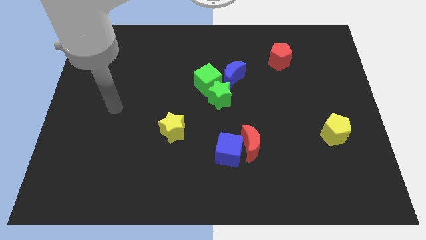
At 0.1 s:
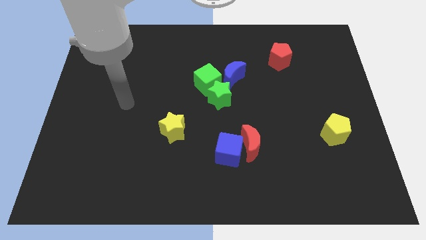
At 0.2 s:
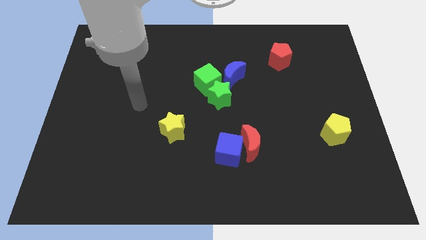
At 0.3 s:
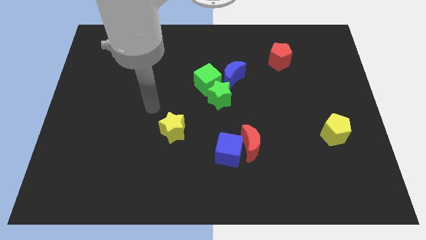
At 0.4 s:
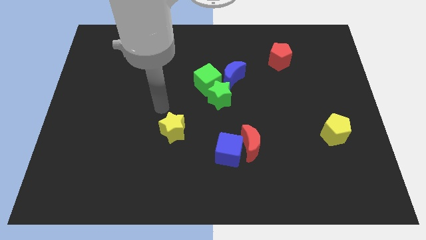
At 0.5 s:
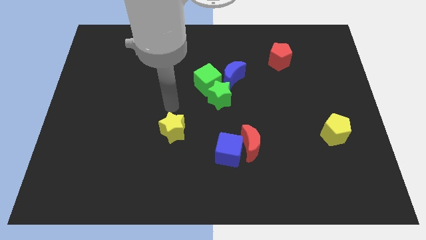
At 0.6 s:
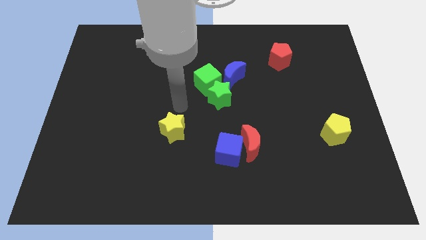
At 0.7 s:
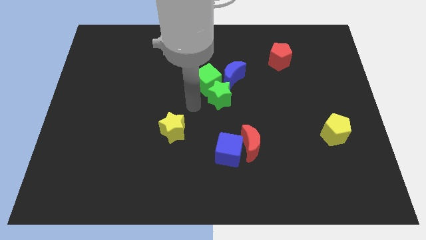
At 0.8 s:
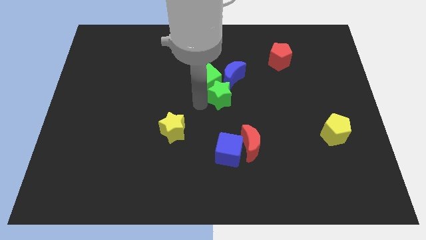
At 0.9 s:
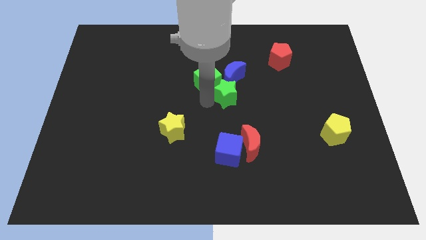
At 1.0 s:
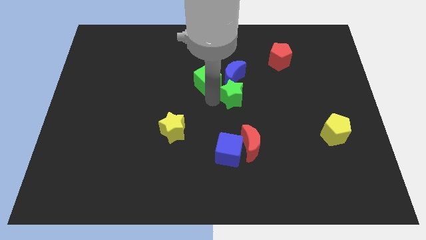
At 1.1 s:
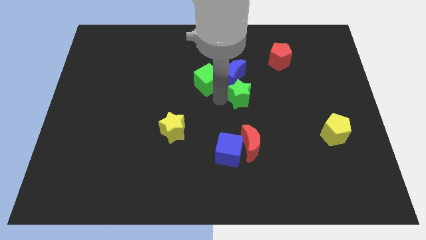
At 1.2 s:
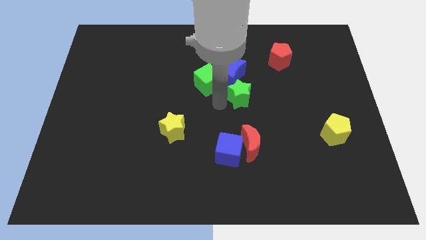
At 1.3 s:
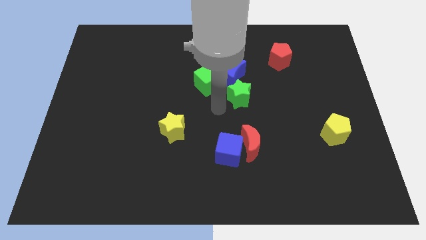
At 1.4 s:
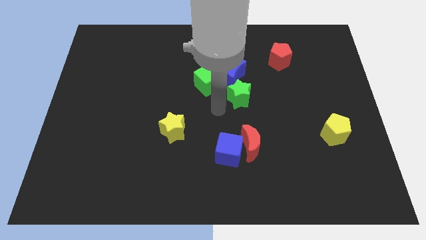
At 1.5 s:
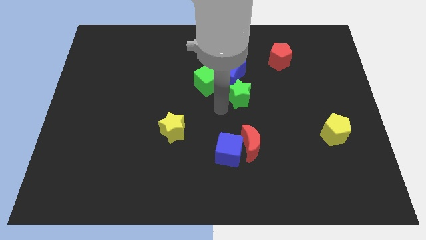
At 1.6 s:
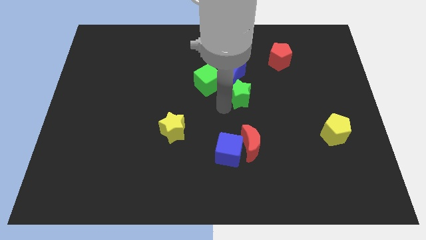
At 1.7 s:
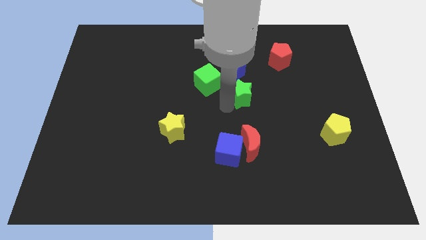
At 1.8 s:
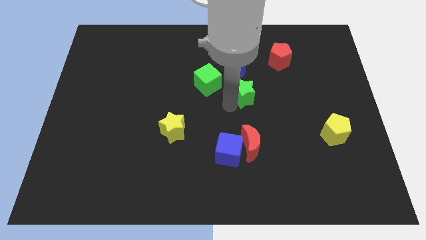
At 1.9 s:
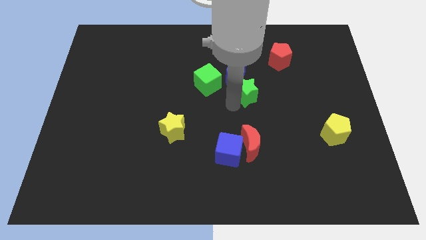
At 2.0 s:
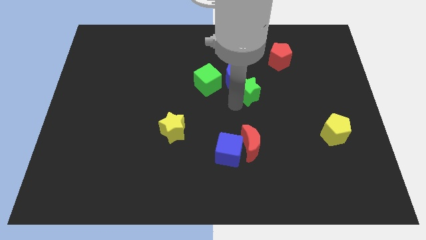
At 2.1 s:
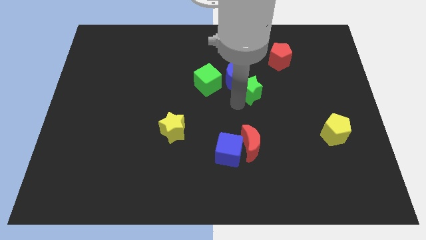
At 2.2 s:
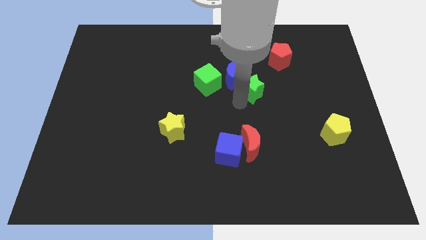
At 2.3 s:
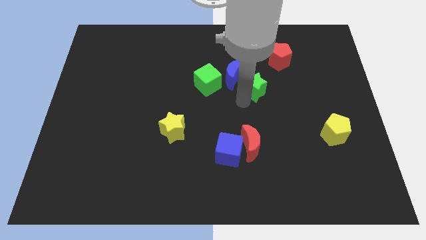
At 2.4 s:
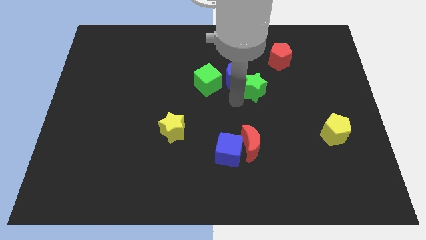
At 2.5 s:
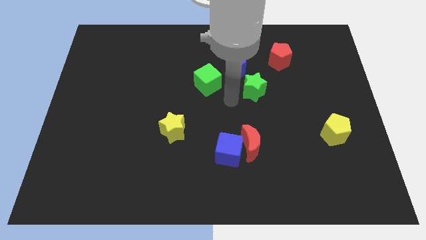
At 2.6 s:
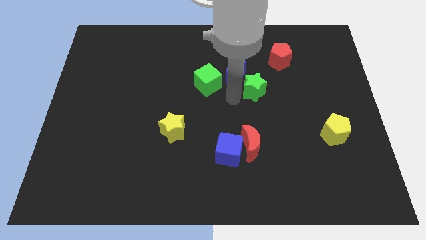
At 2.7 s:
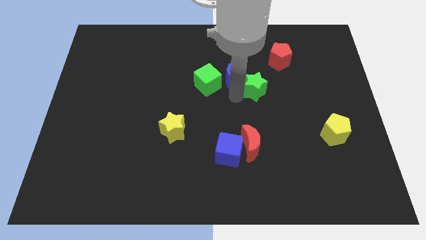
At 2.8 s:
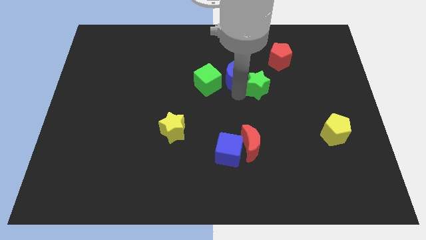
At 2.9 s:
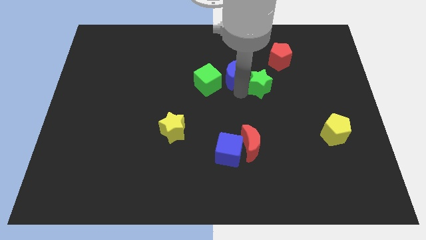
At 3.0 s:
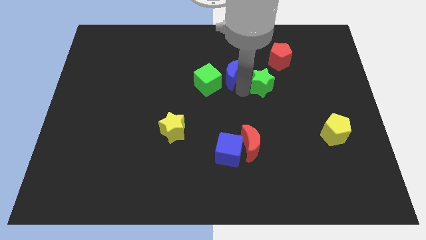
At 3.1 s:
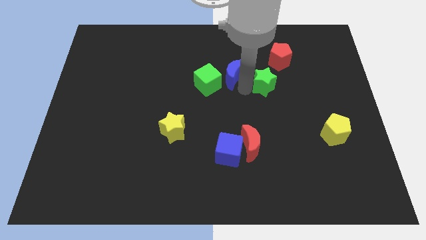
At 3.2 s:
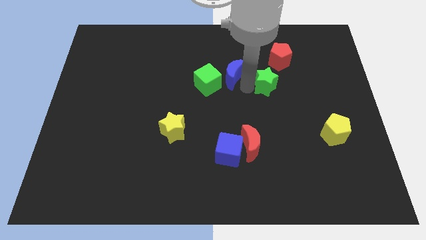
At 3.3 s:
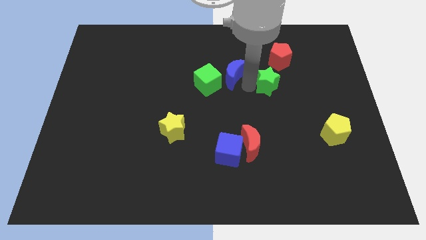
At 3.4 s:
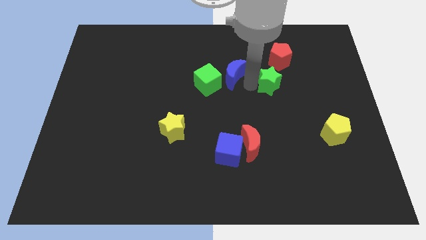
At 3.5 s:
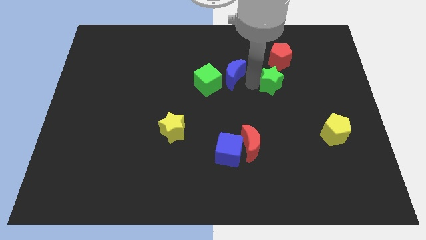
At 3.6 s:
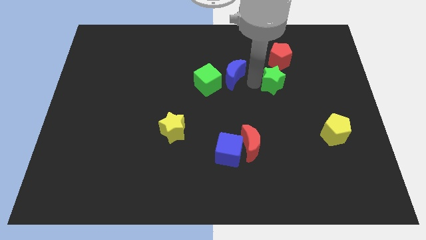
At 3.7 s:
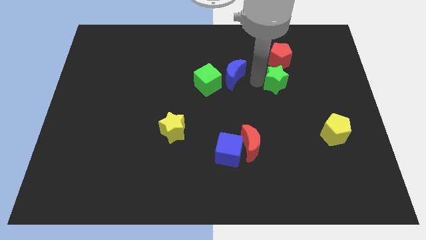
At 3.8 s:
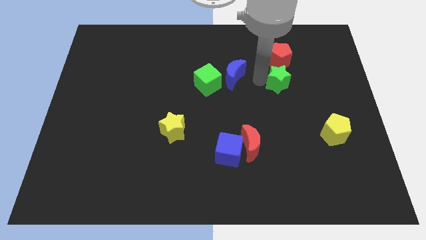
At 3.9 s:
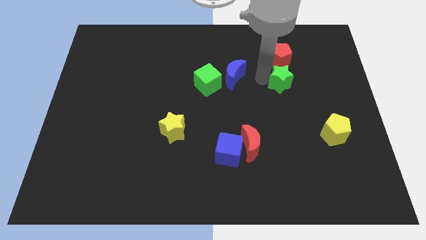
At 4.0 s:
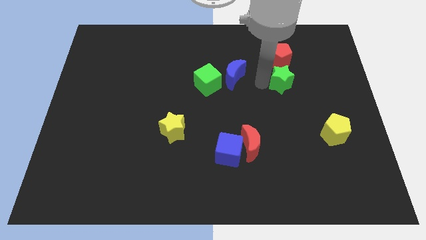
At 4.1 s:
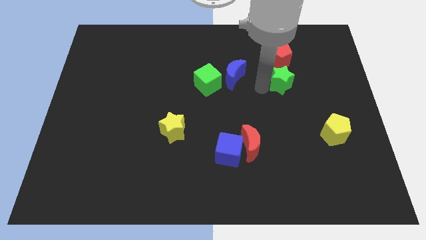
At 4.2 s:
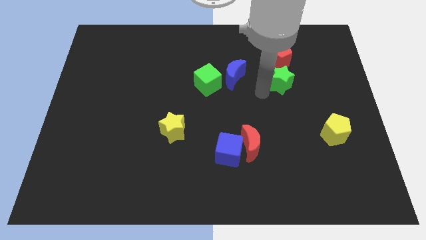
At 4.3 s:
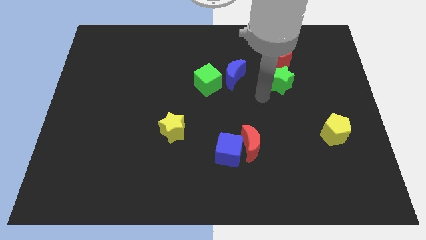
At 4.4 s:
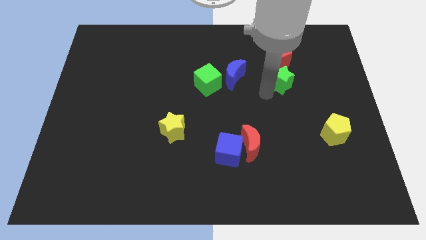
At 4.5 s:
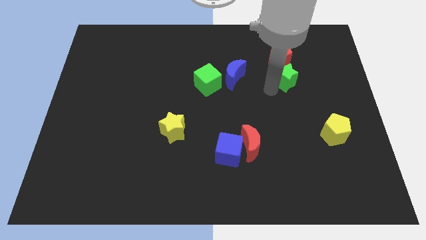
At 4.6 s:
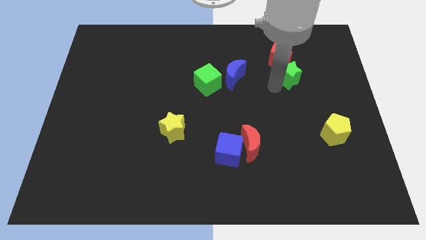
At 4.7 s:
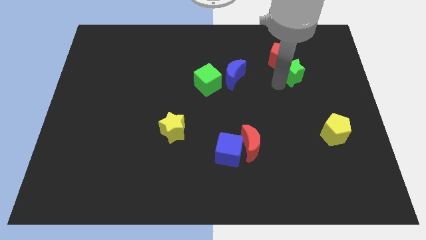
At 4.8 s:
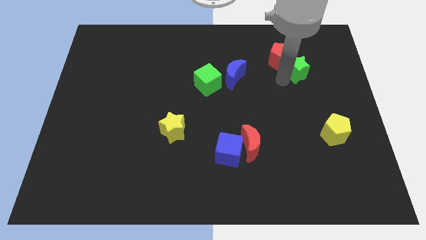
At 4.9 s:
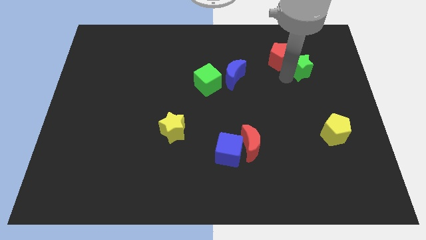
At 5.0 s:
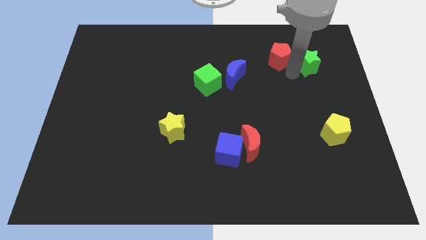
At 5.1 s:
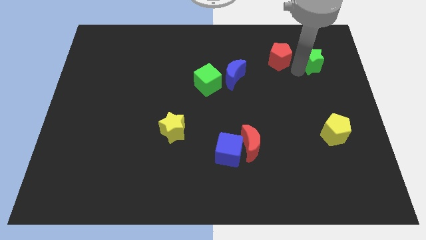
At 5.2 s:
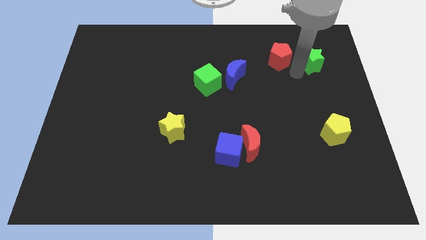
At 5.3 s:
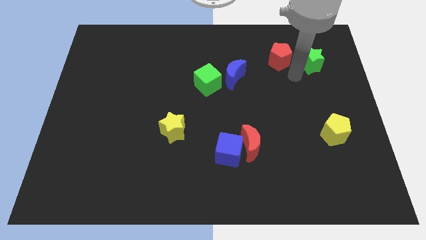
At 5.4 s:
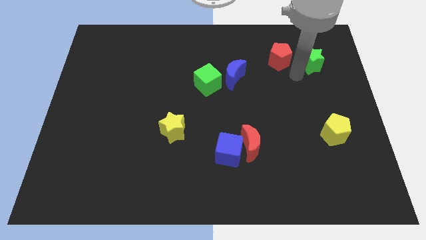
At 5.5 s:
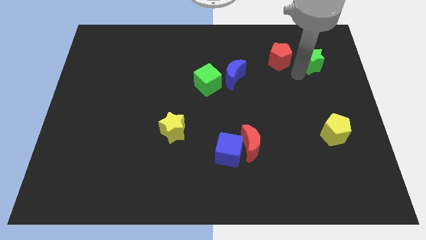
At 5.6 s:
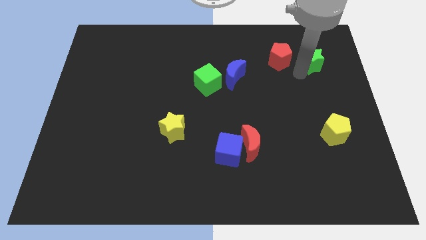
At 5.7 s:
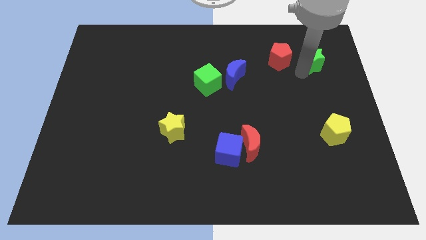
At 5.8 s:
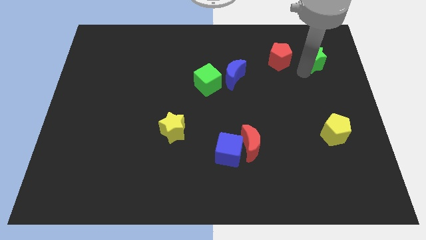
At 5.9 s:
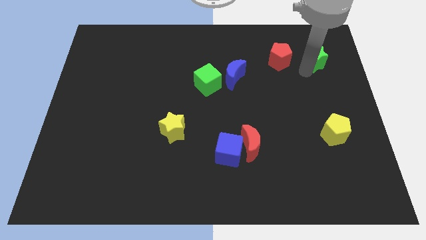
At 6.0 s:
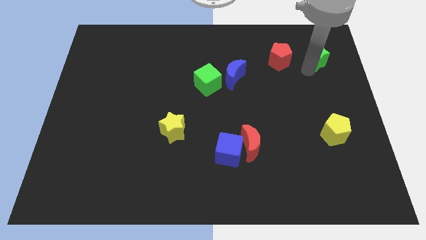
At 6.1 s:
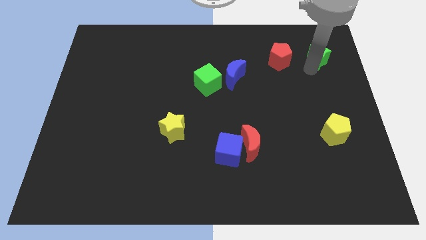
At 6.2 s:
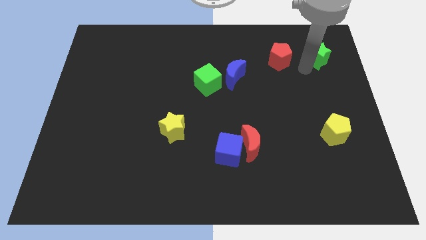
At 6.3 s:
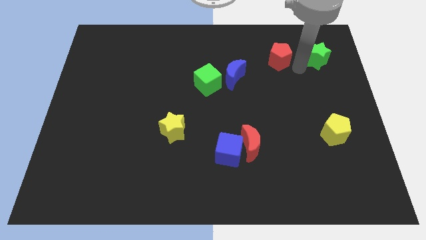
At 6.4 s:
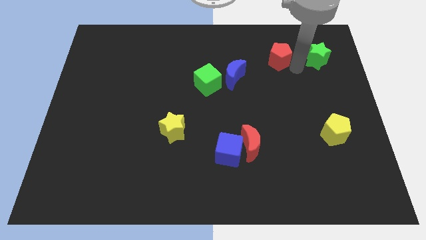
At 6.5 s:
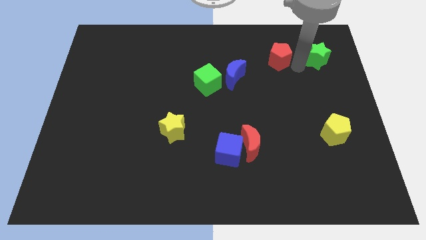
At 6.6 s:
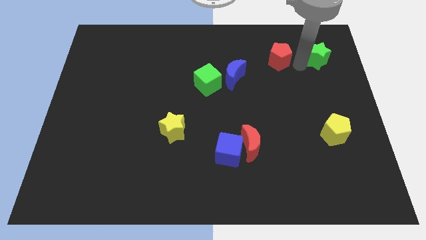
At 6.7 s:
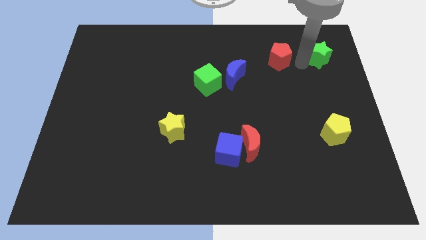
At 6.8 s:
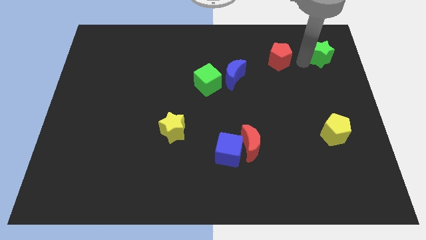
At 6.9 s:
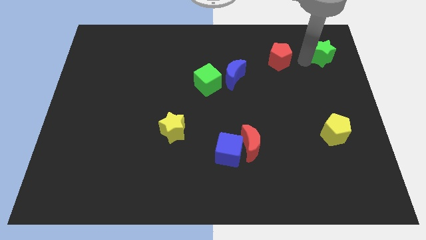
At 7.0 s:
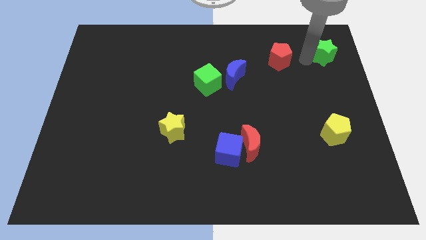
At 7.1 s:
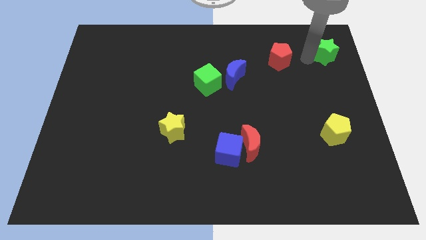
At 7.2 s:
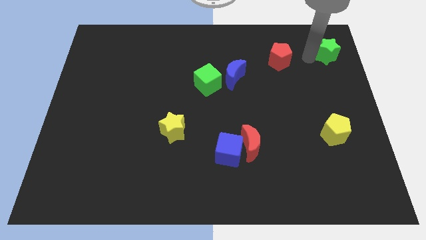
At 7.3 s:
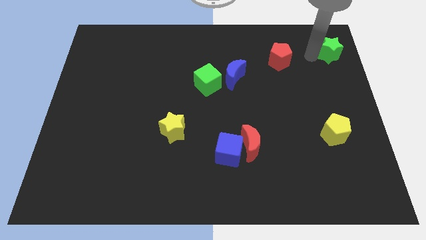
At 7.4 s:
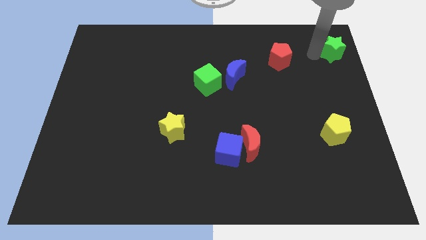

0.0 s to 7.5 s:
slide the green star to the top right corner

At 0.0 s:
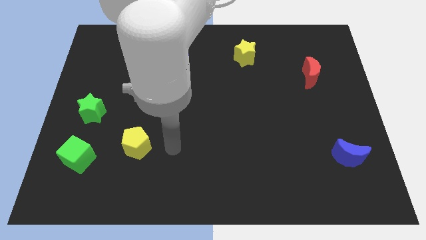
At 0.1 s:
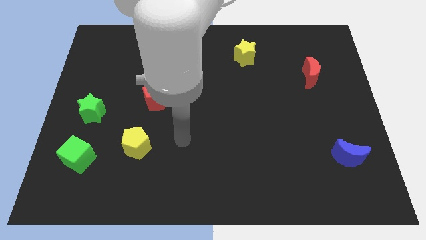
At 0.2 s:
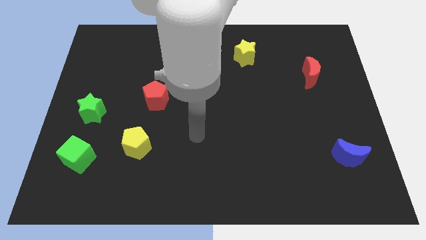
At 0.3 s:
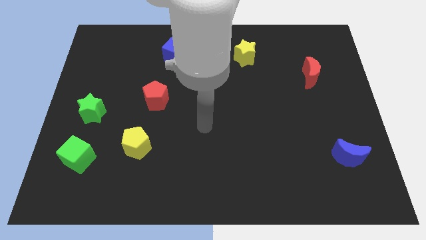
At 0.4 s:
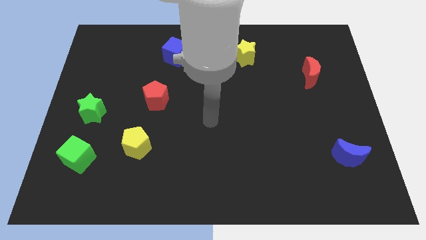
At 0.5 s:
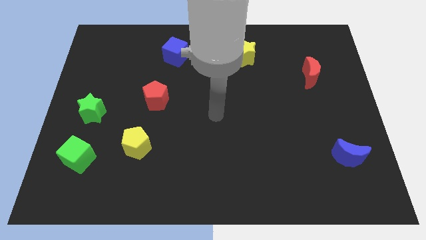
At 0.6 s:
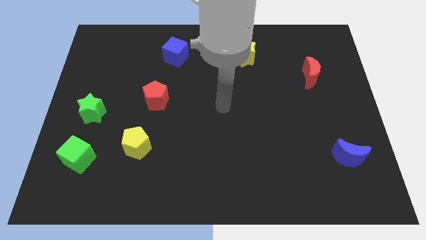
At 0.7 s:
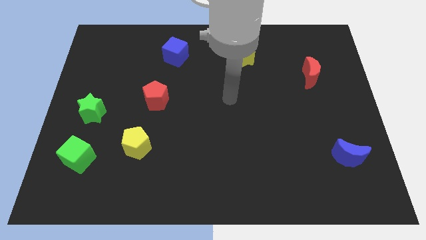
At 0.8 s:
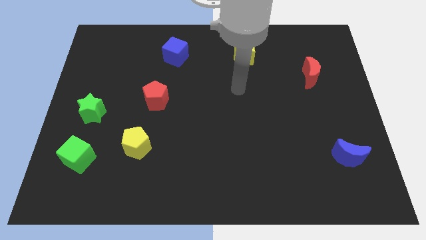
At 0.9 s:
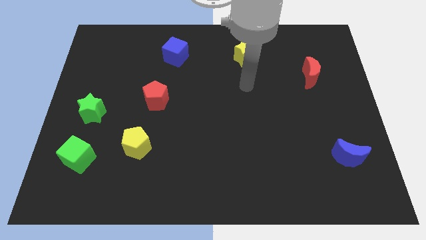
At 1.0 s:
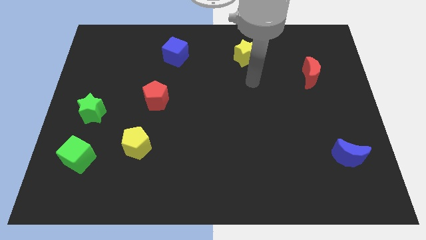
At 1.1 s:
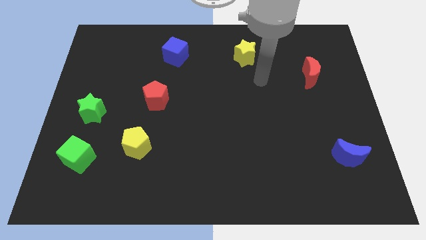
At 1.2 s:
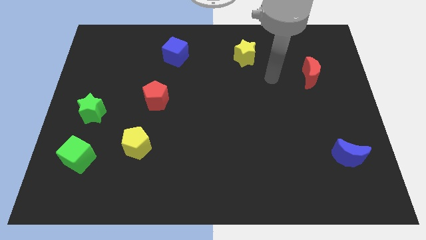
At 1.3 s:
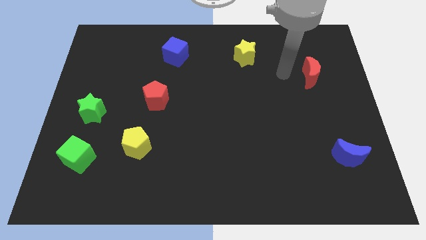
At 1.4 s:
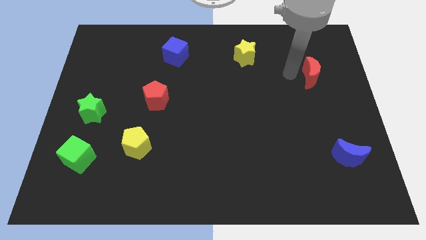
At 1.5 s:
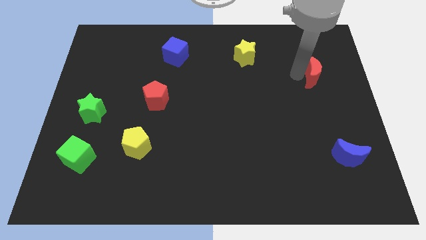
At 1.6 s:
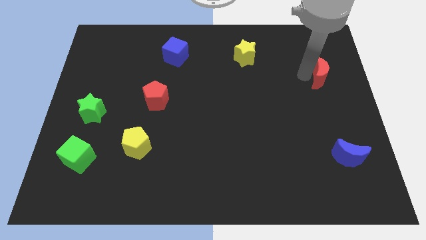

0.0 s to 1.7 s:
slide the red moon to the right side of the board
